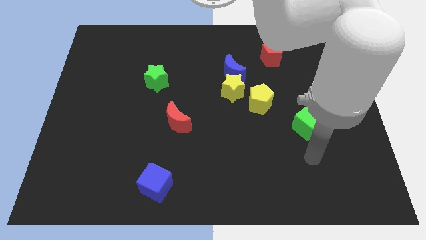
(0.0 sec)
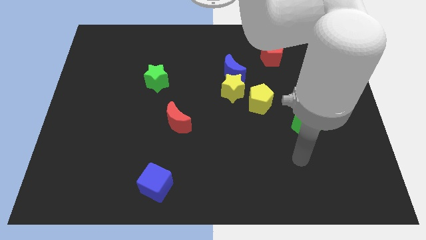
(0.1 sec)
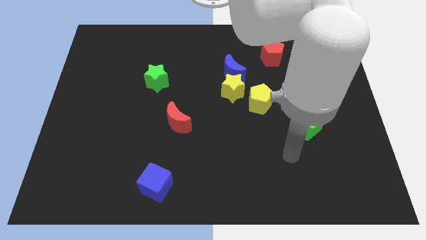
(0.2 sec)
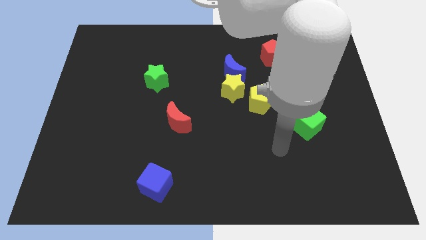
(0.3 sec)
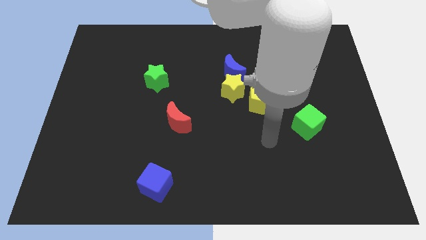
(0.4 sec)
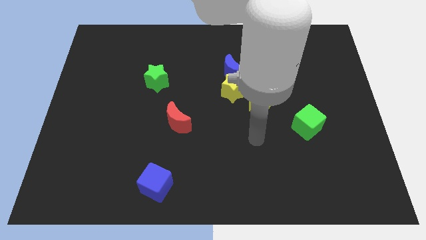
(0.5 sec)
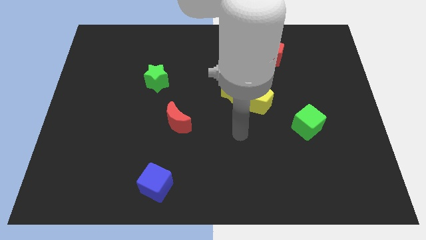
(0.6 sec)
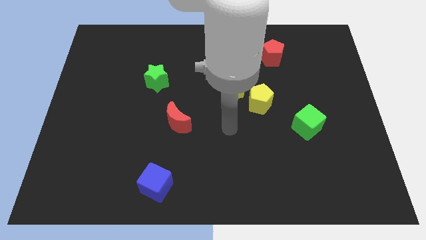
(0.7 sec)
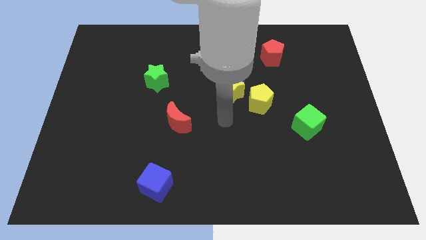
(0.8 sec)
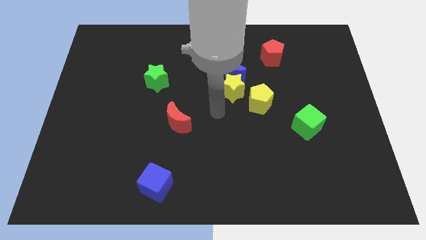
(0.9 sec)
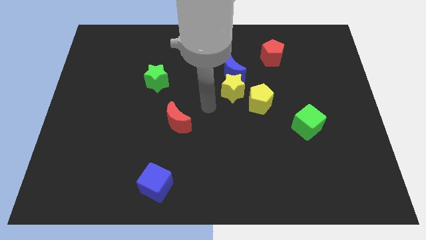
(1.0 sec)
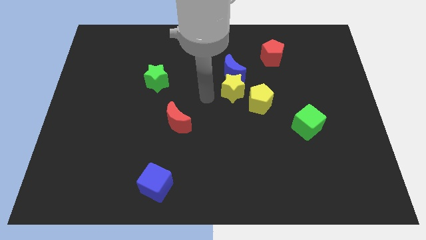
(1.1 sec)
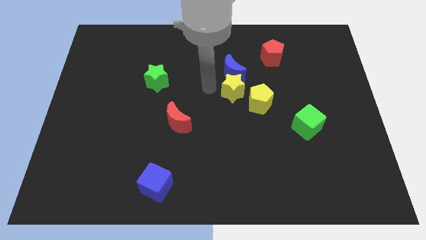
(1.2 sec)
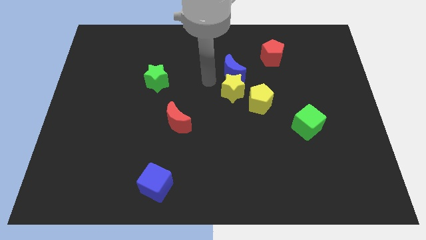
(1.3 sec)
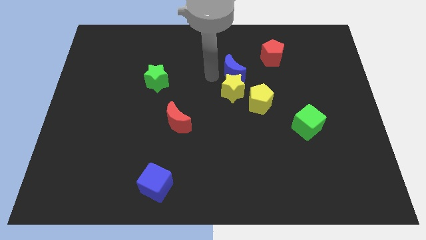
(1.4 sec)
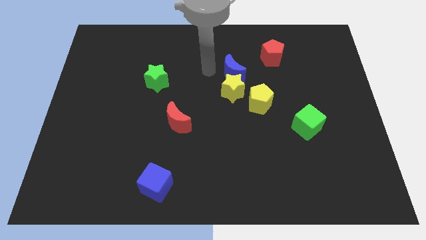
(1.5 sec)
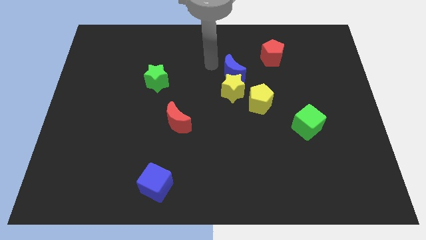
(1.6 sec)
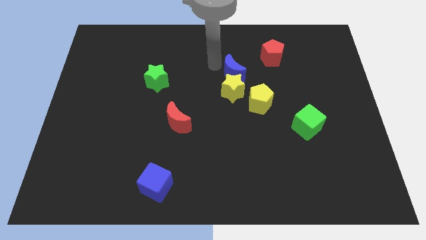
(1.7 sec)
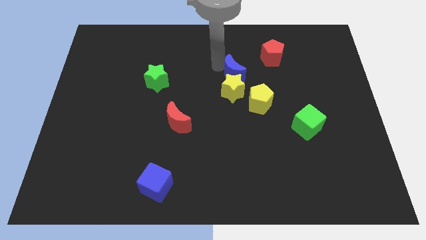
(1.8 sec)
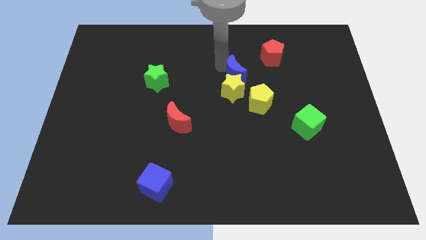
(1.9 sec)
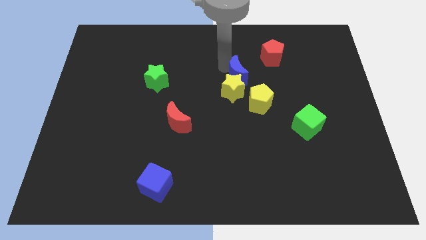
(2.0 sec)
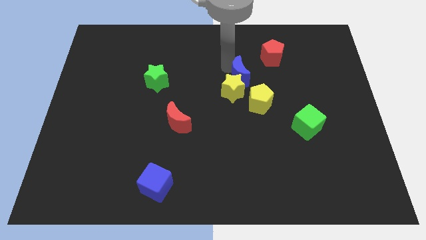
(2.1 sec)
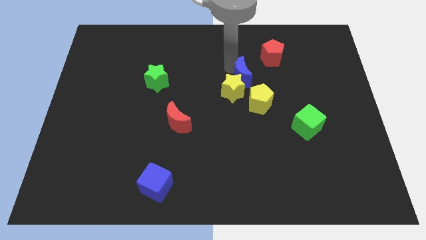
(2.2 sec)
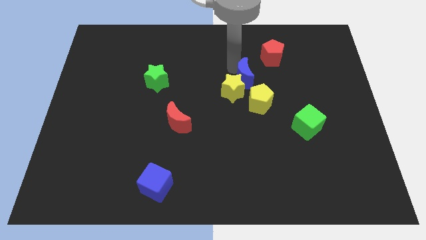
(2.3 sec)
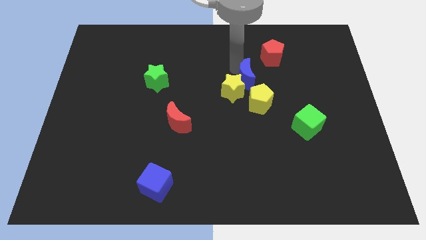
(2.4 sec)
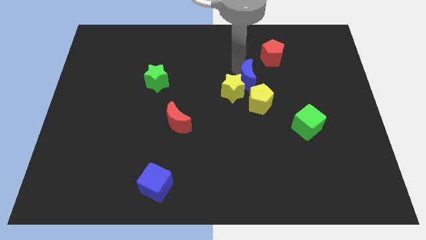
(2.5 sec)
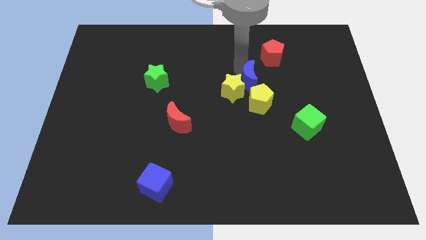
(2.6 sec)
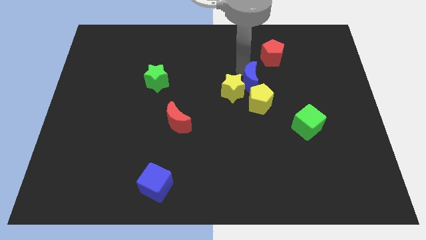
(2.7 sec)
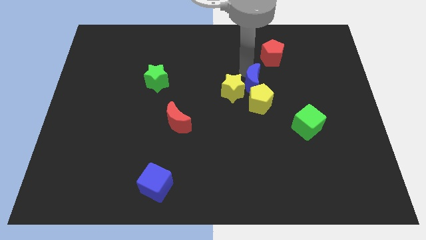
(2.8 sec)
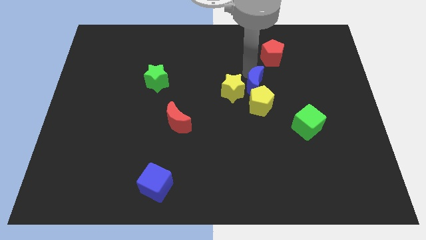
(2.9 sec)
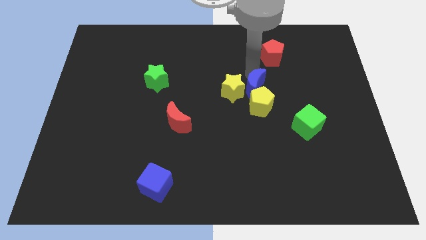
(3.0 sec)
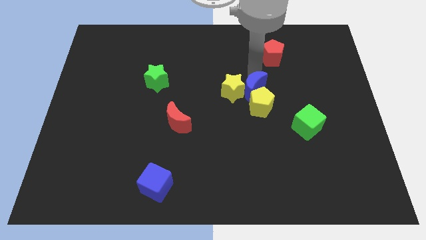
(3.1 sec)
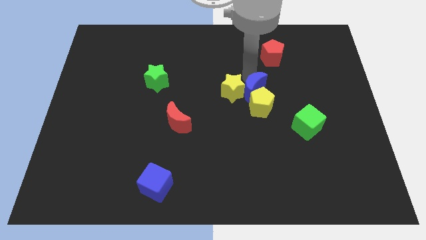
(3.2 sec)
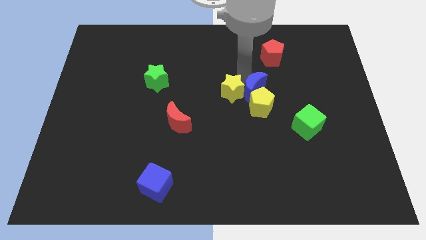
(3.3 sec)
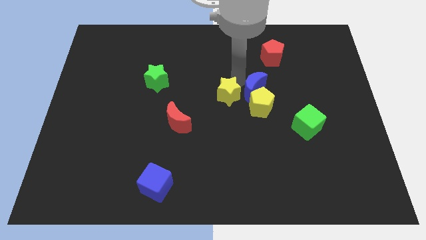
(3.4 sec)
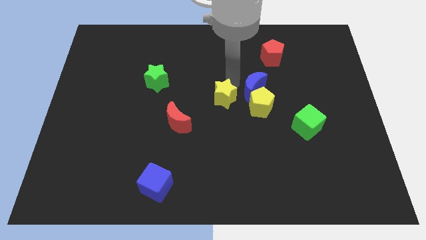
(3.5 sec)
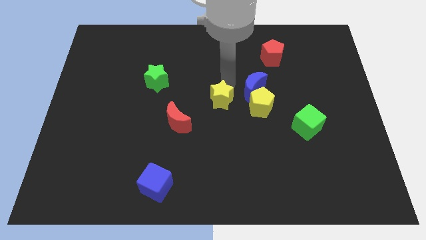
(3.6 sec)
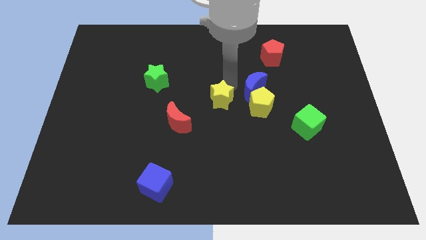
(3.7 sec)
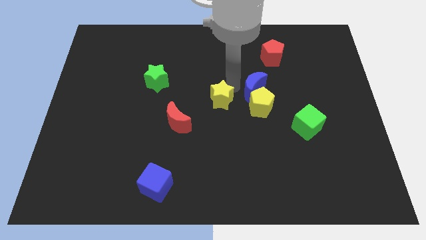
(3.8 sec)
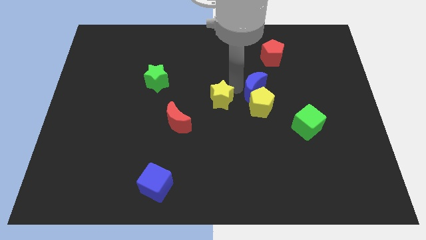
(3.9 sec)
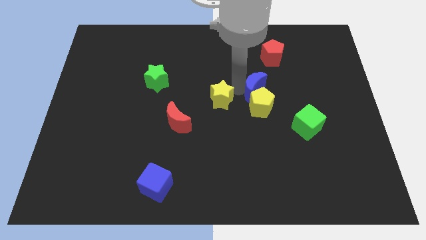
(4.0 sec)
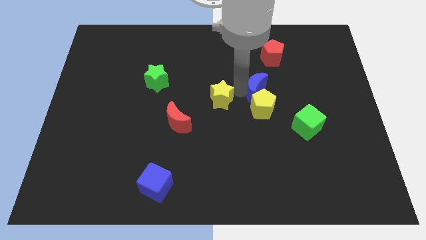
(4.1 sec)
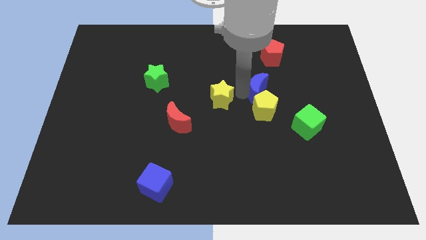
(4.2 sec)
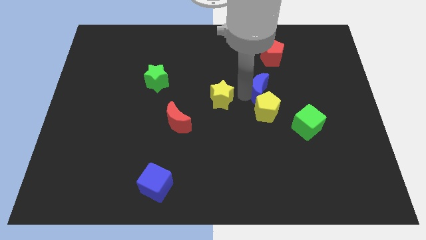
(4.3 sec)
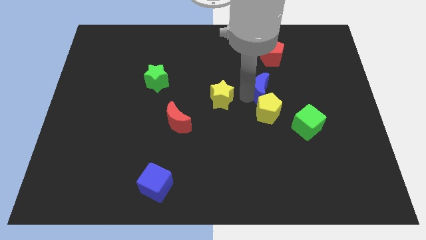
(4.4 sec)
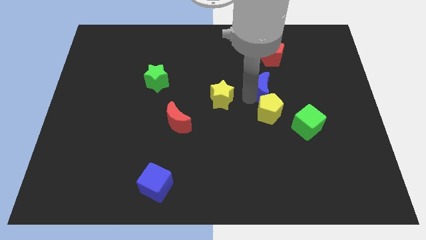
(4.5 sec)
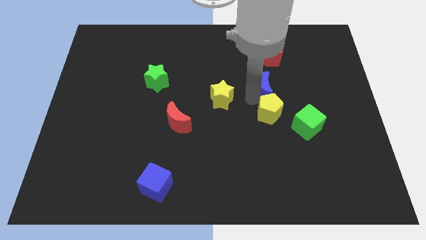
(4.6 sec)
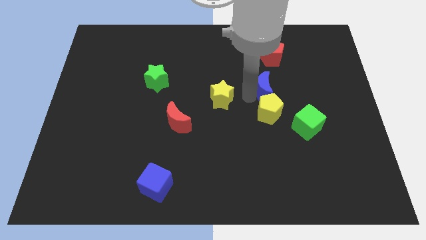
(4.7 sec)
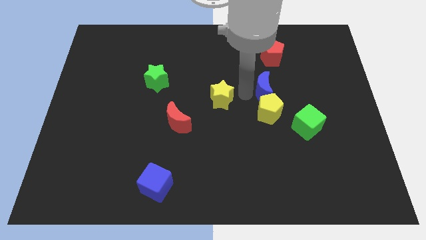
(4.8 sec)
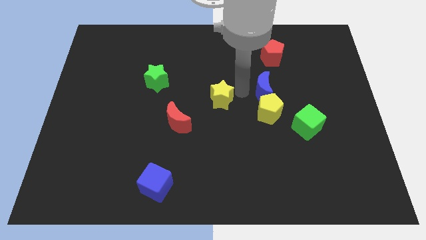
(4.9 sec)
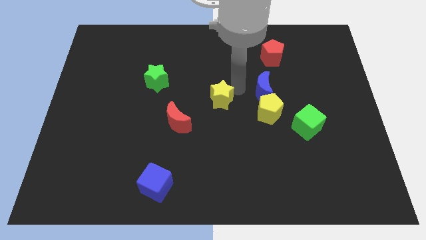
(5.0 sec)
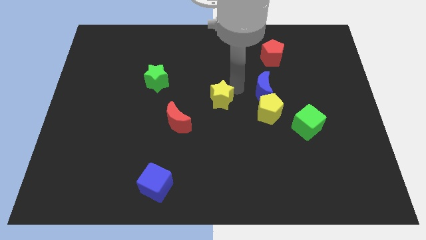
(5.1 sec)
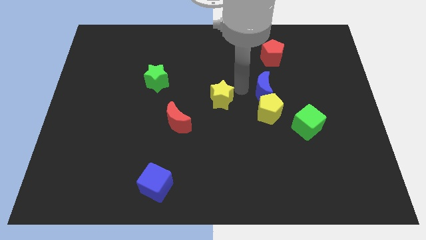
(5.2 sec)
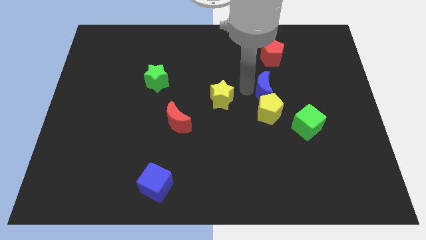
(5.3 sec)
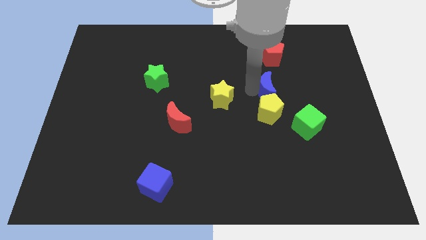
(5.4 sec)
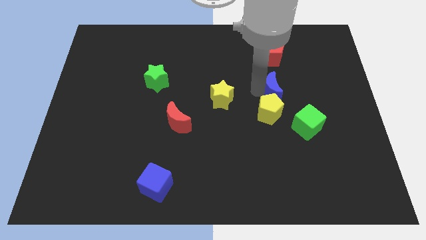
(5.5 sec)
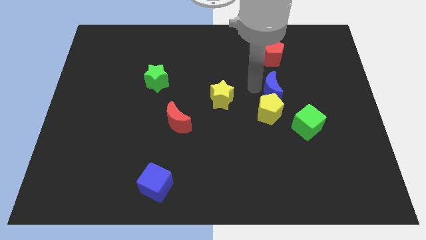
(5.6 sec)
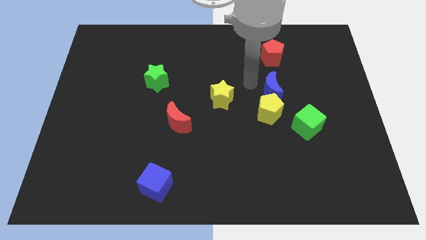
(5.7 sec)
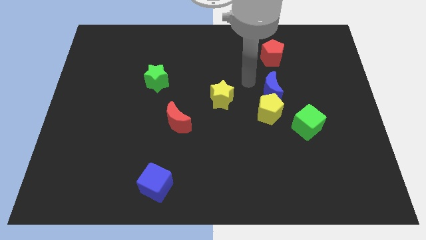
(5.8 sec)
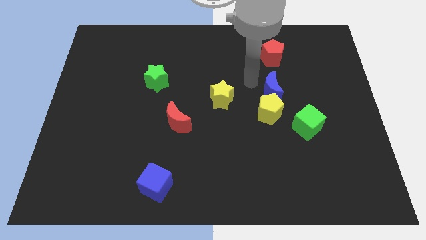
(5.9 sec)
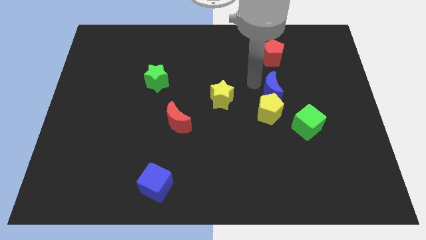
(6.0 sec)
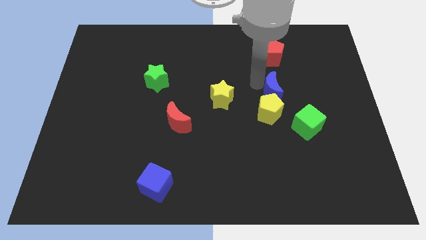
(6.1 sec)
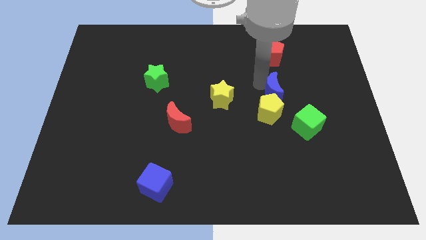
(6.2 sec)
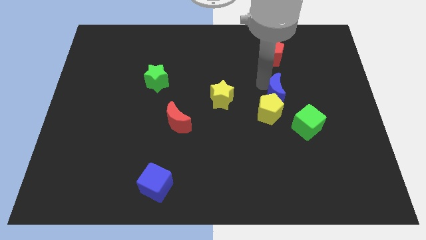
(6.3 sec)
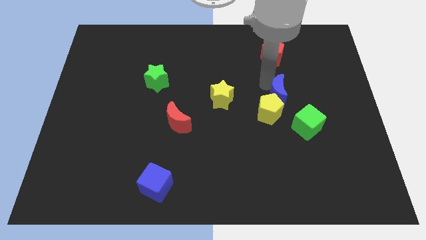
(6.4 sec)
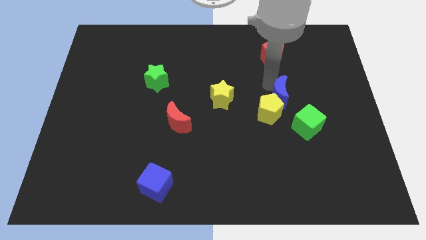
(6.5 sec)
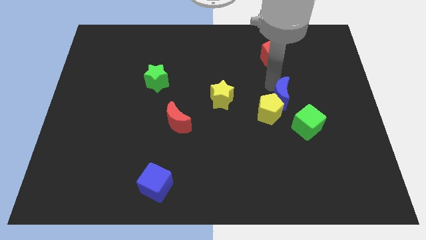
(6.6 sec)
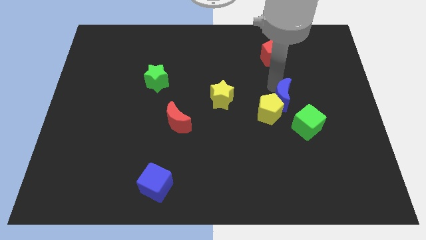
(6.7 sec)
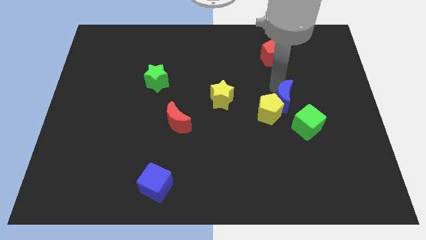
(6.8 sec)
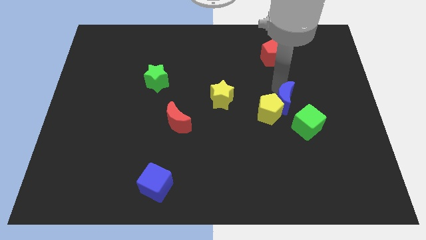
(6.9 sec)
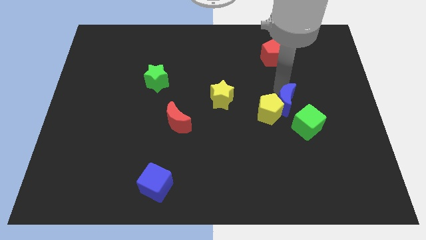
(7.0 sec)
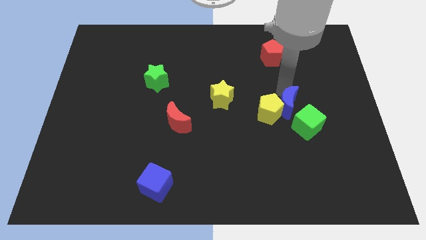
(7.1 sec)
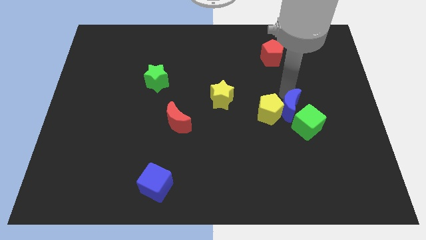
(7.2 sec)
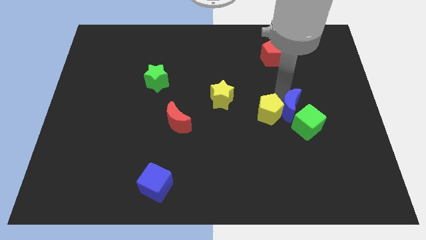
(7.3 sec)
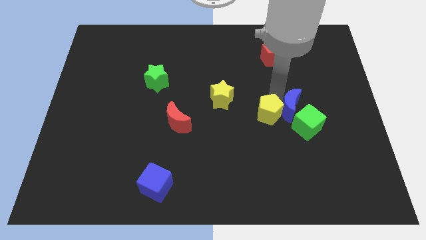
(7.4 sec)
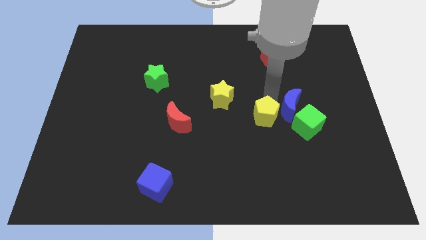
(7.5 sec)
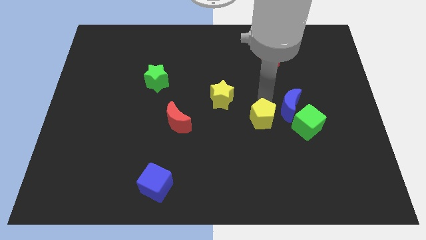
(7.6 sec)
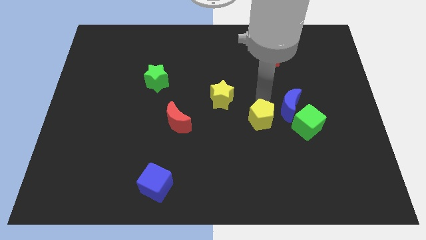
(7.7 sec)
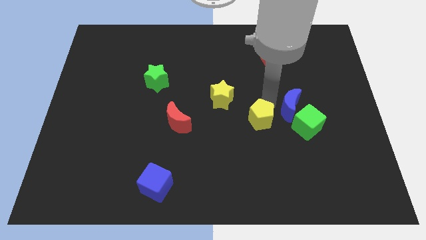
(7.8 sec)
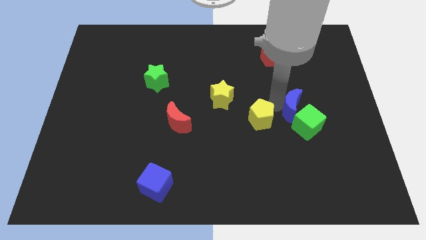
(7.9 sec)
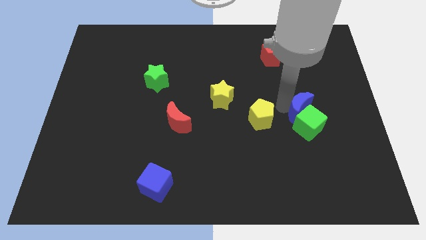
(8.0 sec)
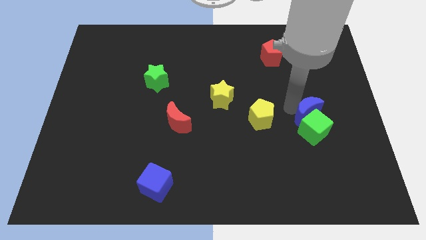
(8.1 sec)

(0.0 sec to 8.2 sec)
slide the blue moon diagonally downwards and right

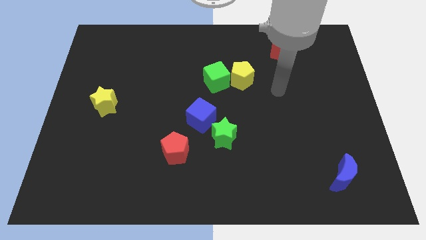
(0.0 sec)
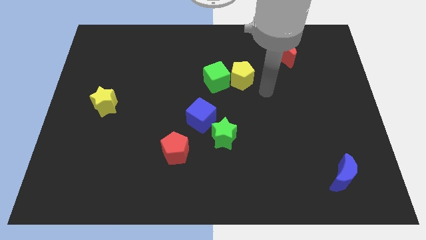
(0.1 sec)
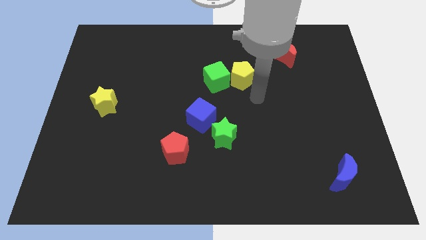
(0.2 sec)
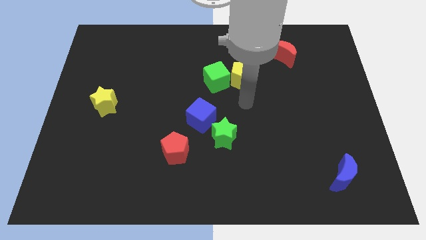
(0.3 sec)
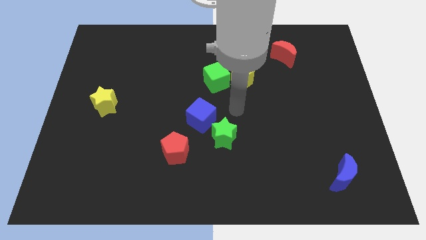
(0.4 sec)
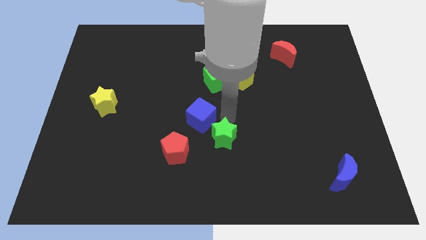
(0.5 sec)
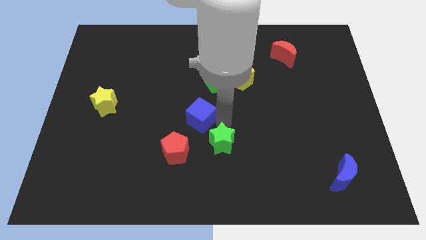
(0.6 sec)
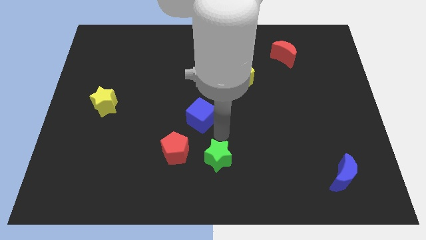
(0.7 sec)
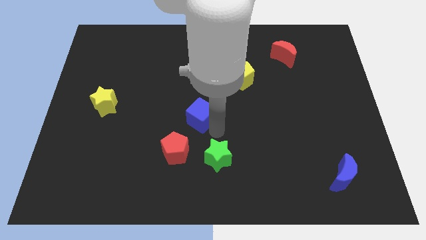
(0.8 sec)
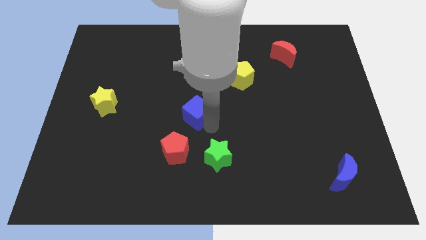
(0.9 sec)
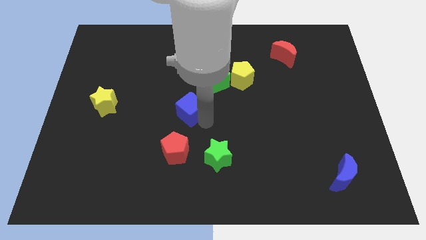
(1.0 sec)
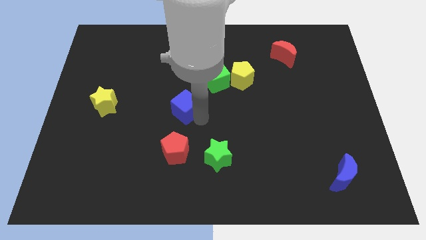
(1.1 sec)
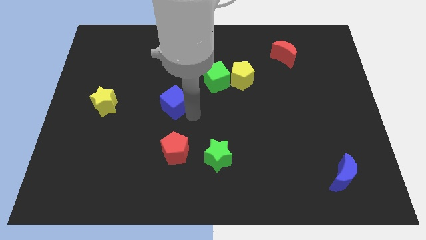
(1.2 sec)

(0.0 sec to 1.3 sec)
slightly push the blue cube diagonally upwards and to the left
